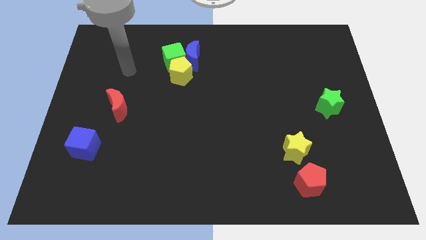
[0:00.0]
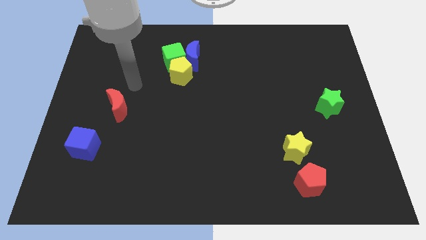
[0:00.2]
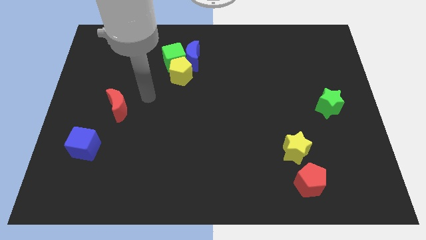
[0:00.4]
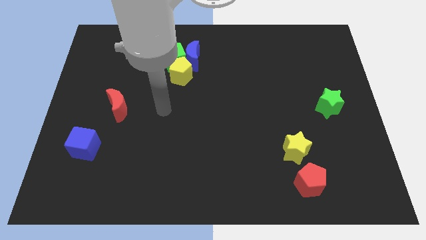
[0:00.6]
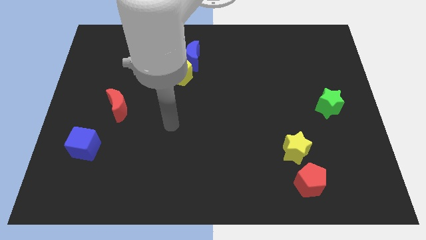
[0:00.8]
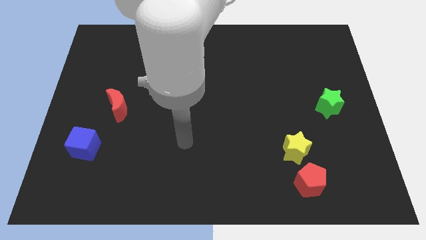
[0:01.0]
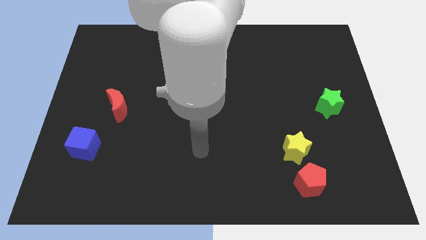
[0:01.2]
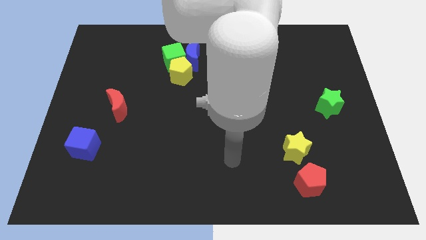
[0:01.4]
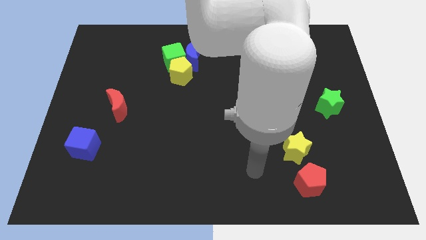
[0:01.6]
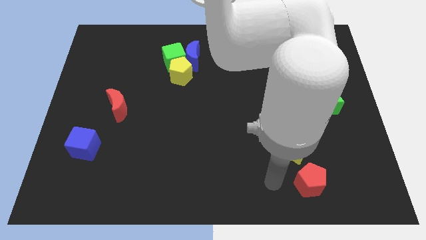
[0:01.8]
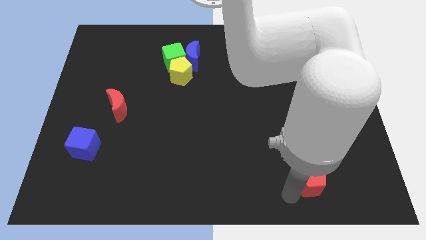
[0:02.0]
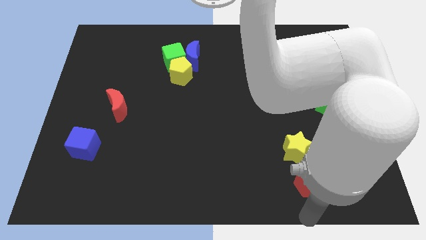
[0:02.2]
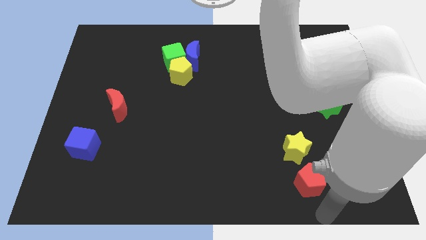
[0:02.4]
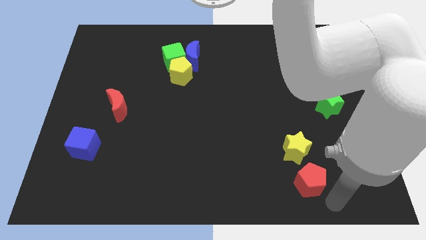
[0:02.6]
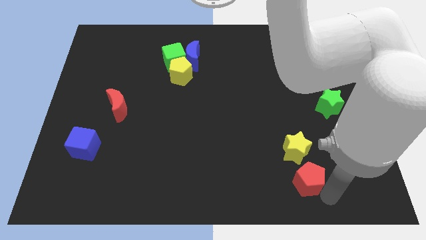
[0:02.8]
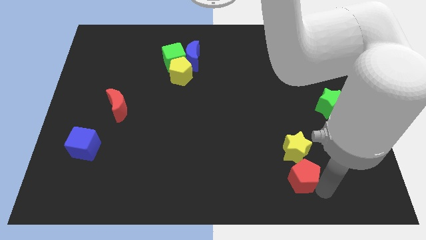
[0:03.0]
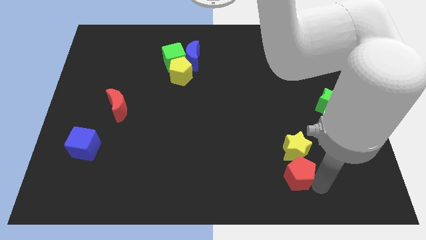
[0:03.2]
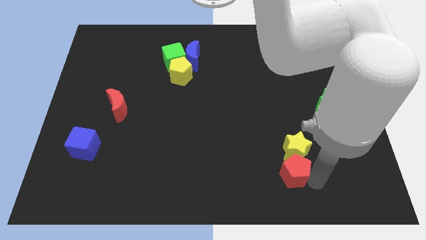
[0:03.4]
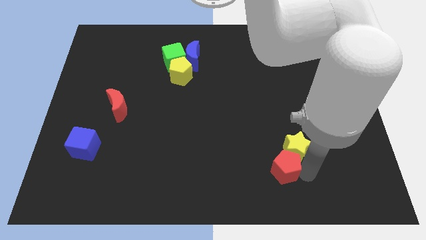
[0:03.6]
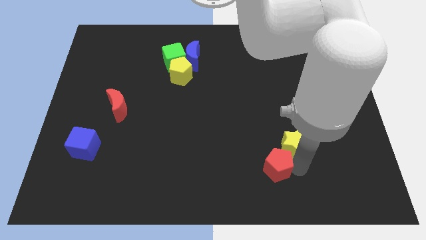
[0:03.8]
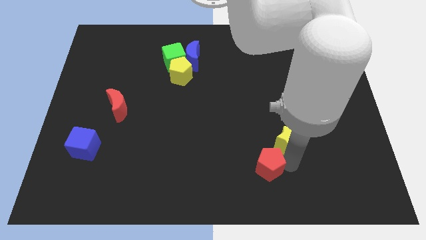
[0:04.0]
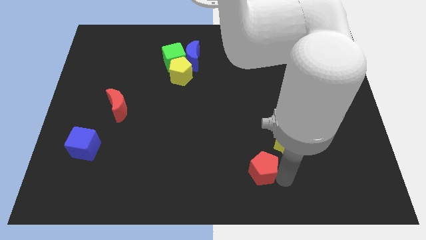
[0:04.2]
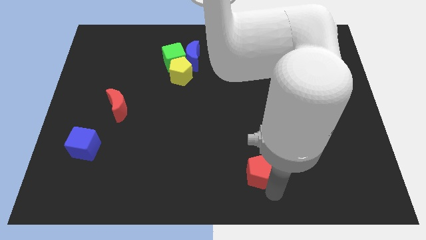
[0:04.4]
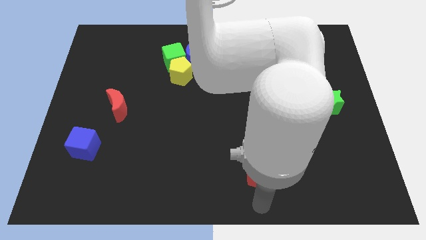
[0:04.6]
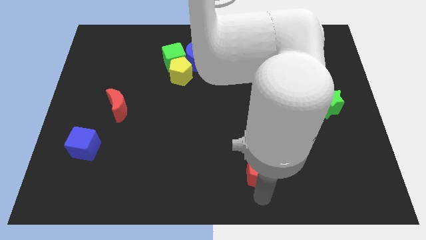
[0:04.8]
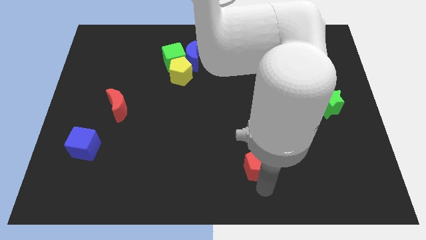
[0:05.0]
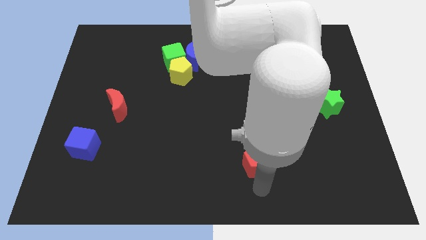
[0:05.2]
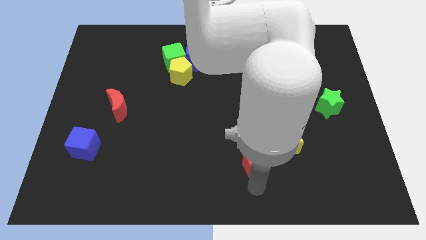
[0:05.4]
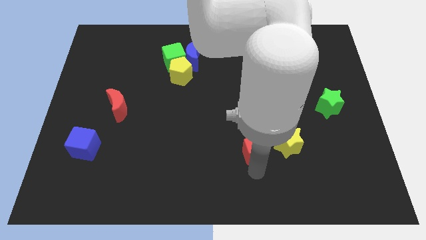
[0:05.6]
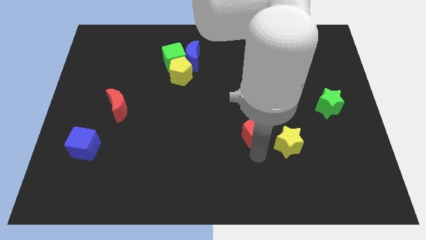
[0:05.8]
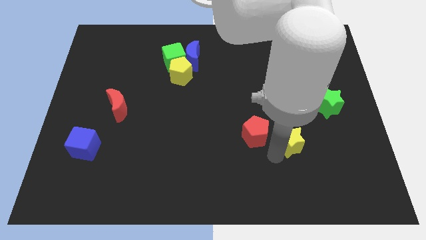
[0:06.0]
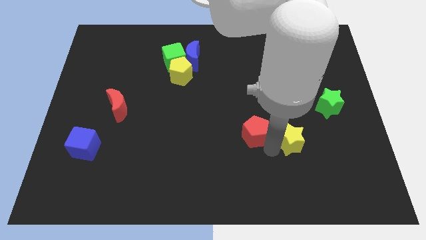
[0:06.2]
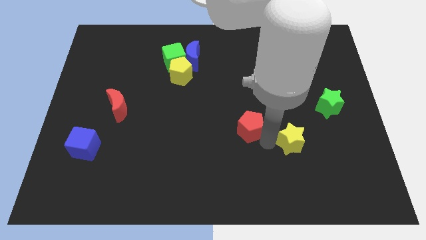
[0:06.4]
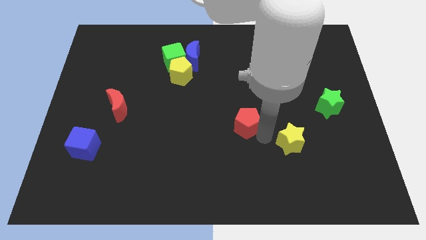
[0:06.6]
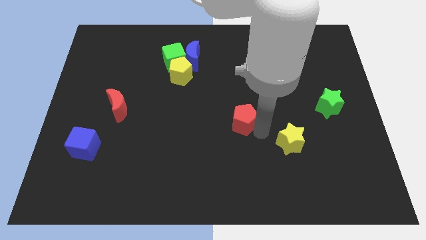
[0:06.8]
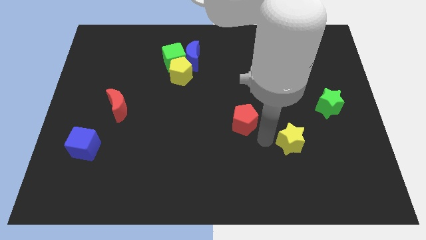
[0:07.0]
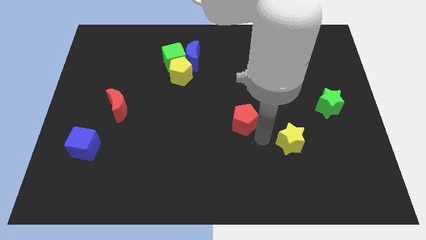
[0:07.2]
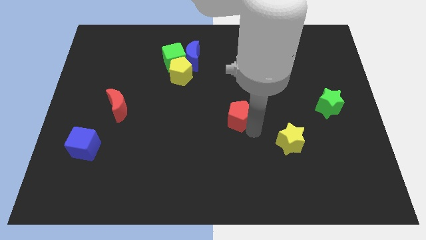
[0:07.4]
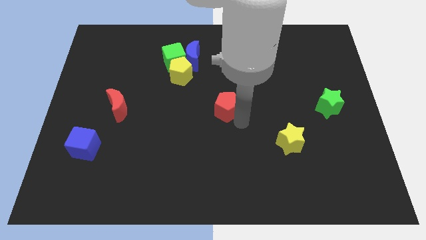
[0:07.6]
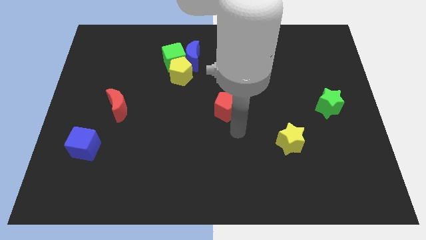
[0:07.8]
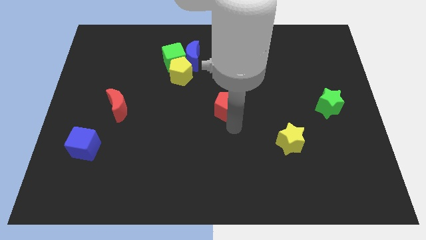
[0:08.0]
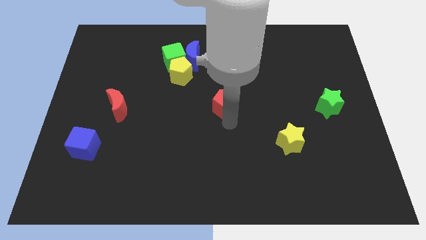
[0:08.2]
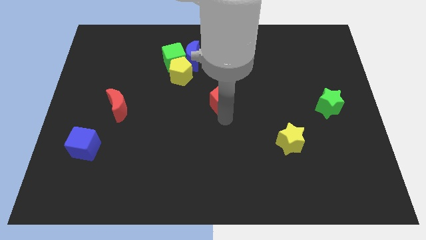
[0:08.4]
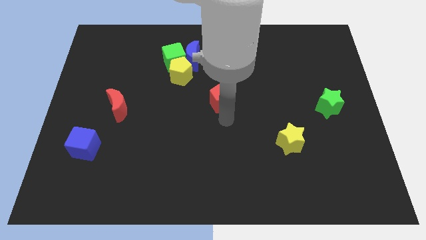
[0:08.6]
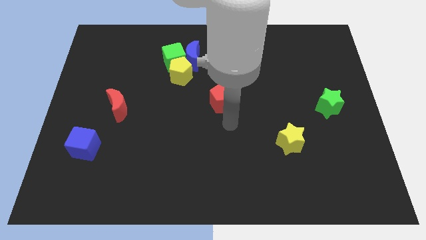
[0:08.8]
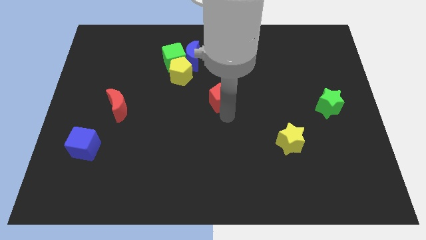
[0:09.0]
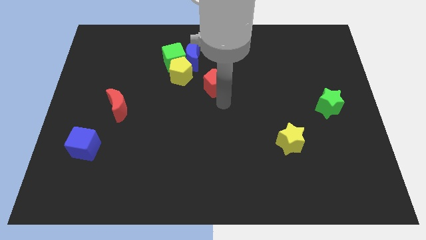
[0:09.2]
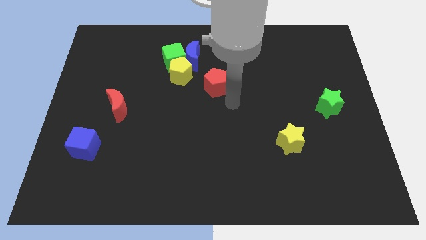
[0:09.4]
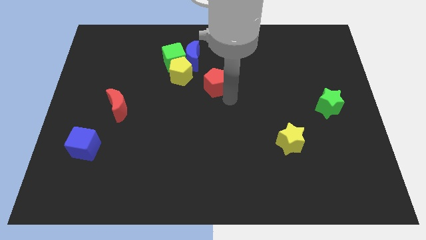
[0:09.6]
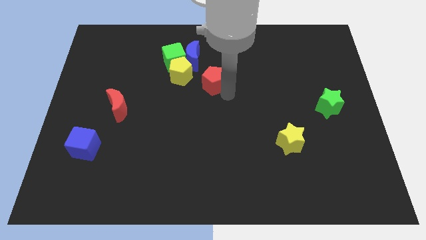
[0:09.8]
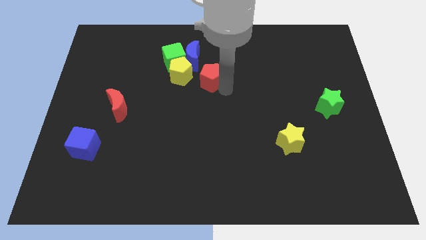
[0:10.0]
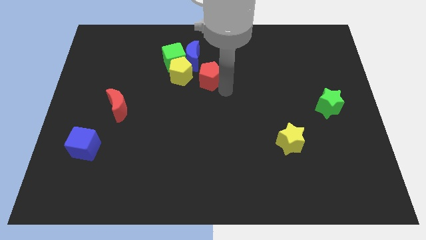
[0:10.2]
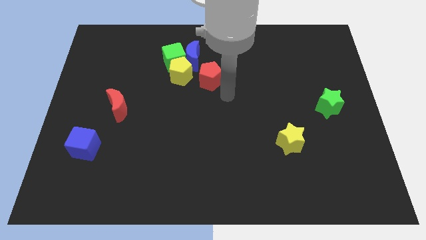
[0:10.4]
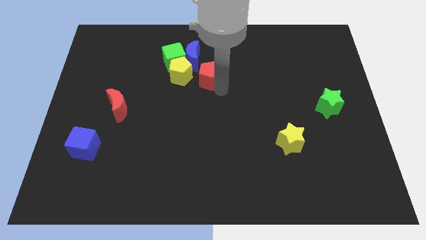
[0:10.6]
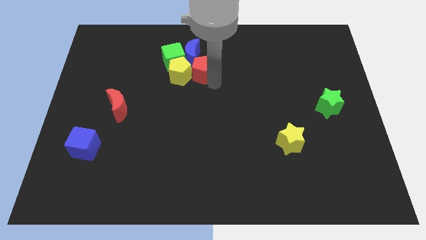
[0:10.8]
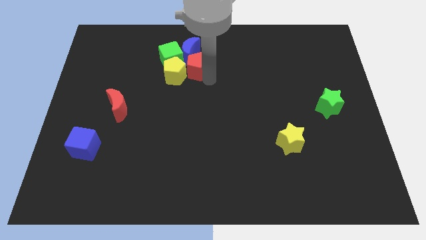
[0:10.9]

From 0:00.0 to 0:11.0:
push the red pentagon close to the blue moon

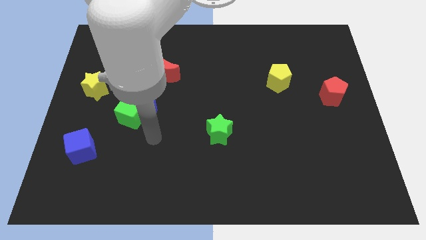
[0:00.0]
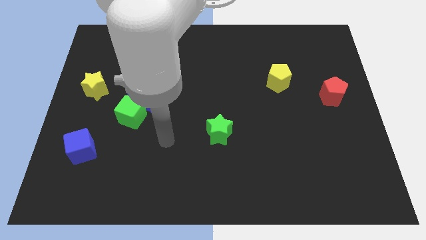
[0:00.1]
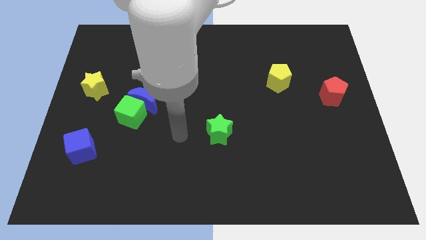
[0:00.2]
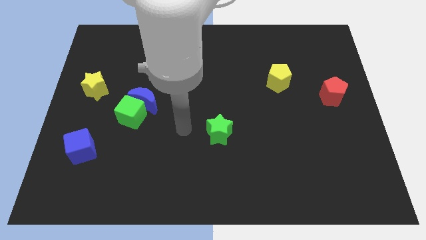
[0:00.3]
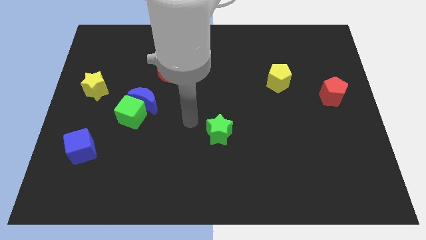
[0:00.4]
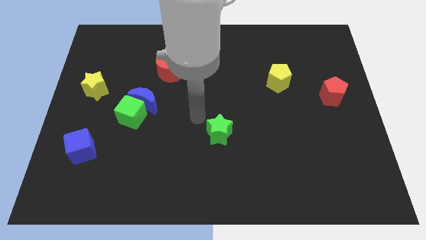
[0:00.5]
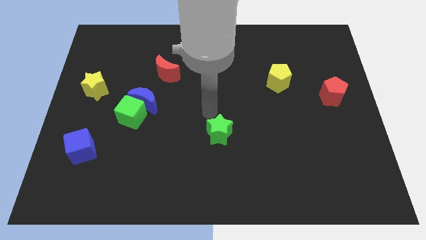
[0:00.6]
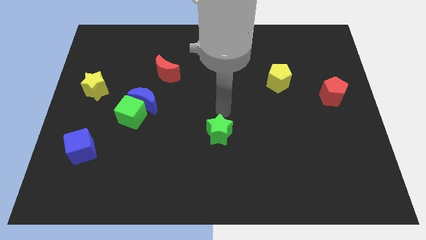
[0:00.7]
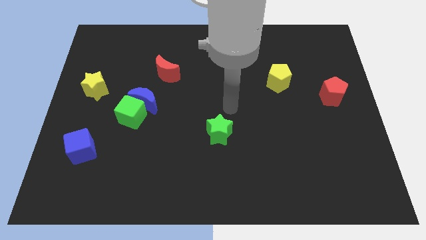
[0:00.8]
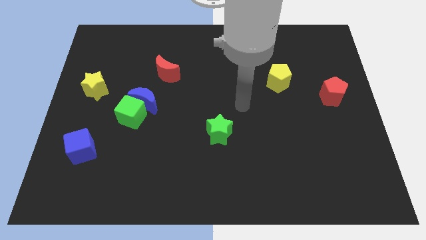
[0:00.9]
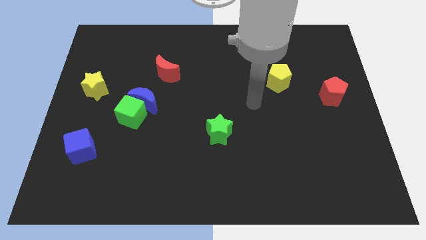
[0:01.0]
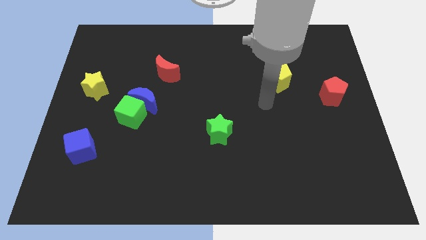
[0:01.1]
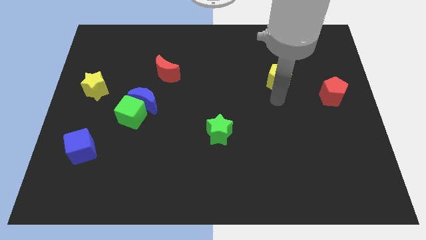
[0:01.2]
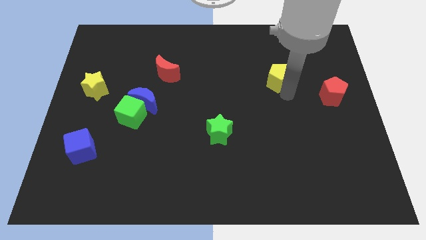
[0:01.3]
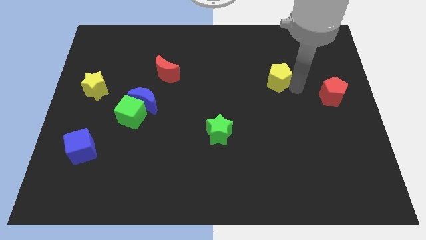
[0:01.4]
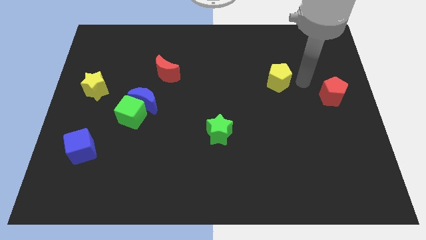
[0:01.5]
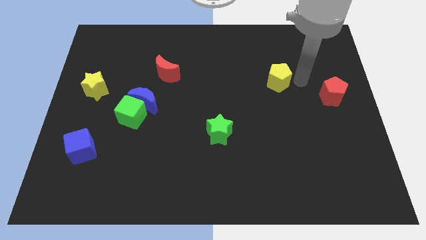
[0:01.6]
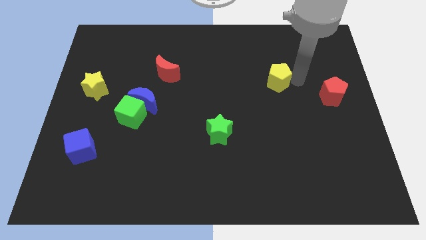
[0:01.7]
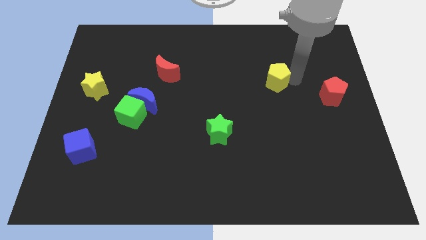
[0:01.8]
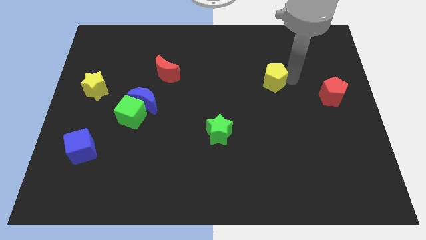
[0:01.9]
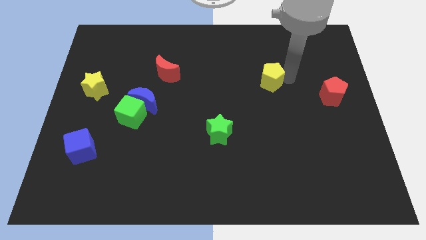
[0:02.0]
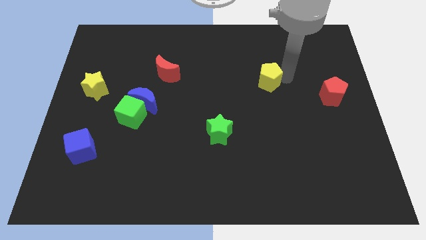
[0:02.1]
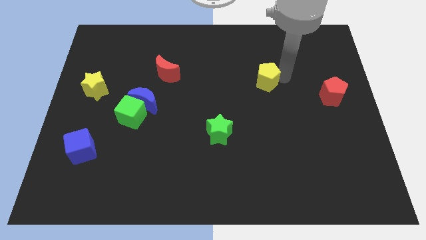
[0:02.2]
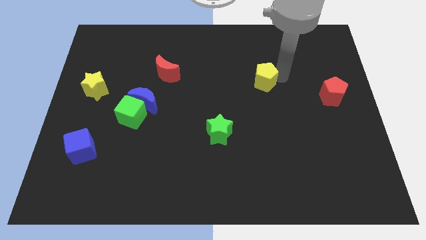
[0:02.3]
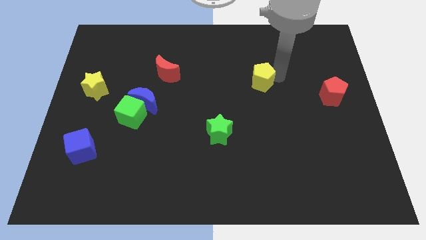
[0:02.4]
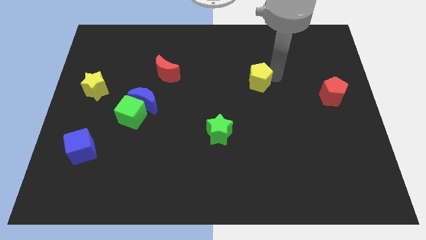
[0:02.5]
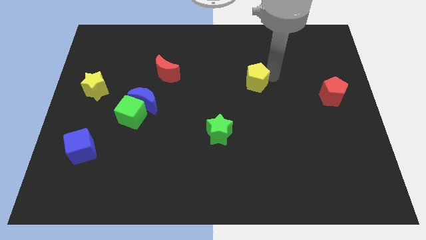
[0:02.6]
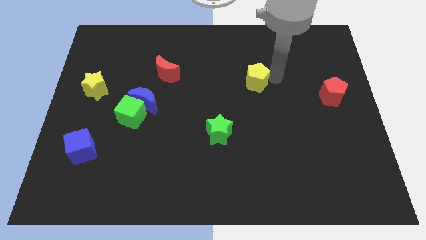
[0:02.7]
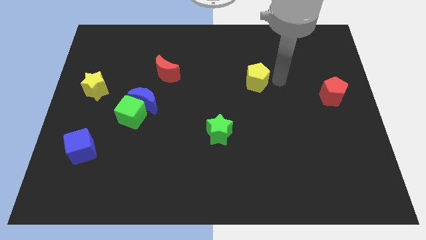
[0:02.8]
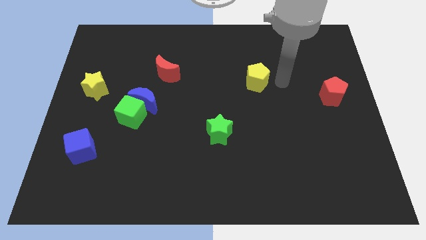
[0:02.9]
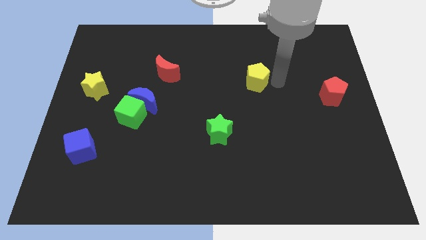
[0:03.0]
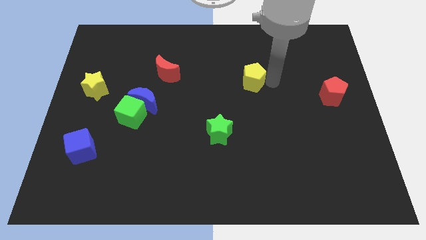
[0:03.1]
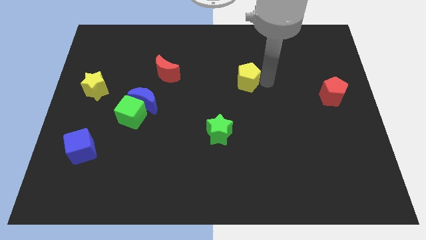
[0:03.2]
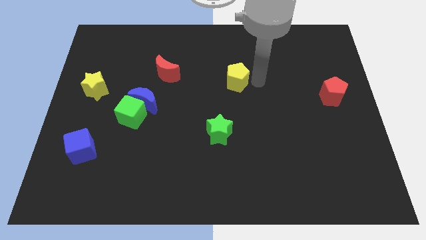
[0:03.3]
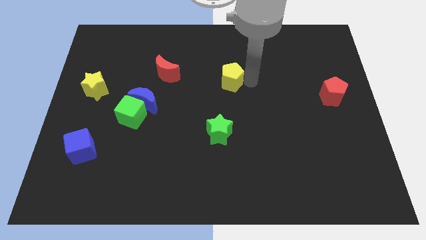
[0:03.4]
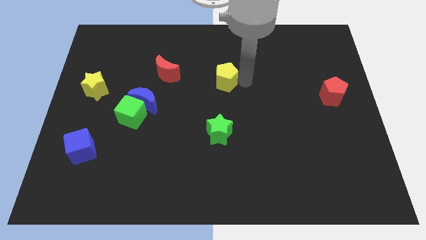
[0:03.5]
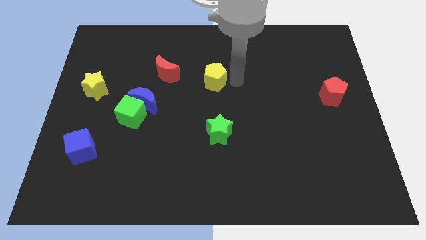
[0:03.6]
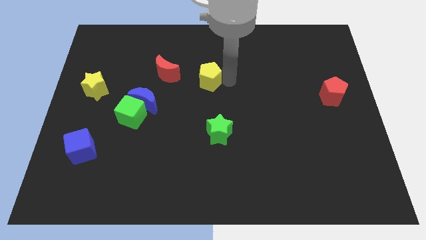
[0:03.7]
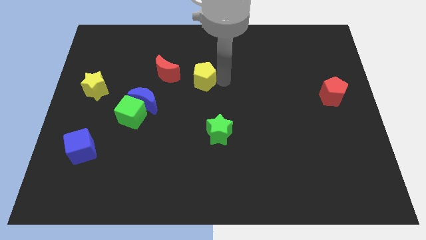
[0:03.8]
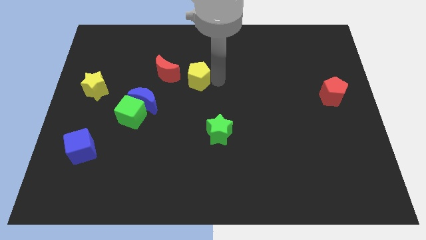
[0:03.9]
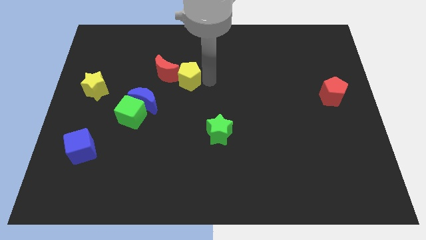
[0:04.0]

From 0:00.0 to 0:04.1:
move the yellow pentagon to the red moon
